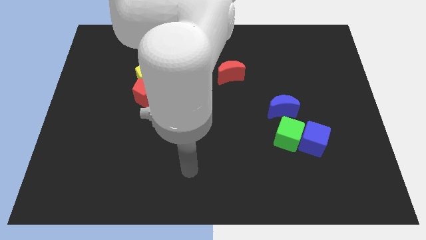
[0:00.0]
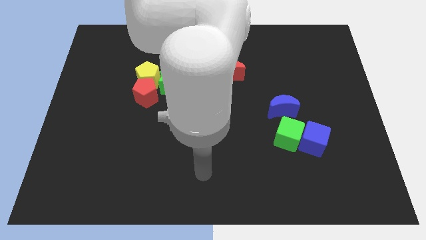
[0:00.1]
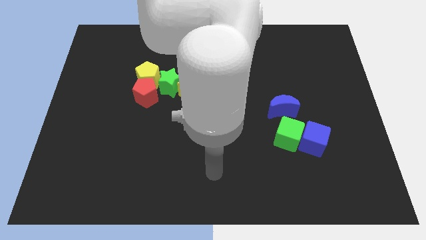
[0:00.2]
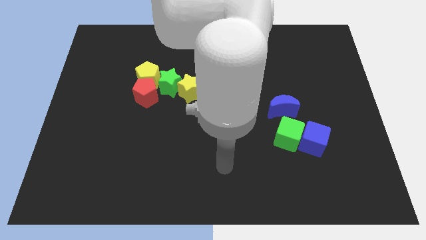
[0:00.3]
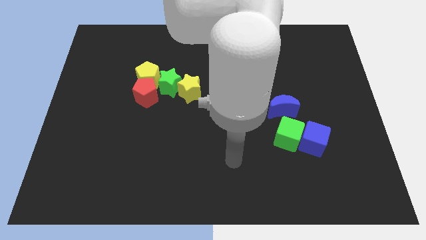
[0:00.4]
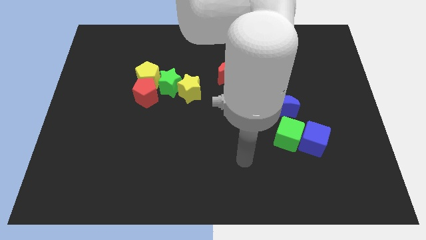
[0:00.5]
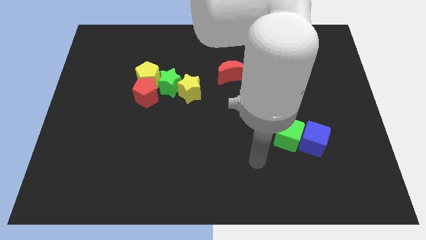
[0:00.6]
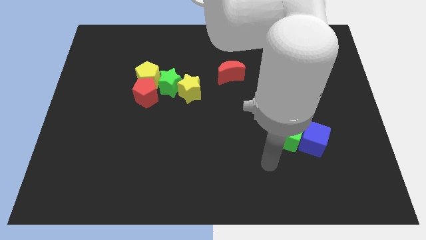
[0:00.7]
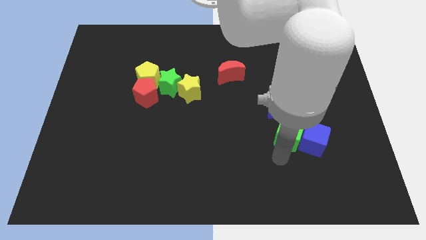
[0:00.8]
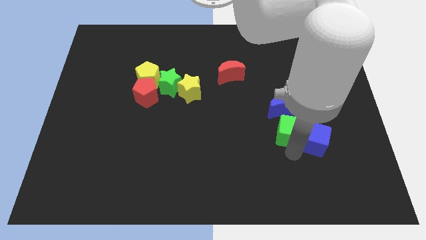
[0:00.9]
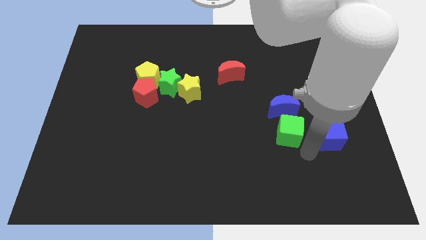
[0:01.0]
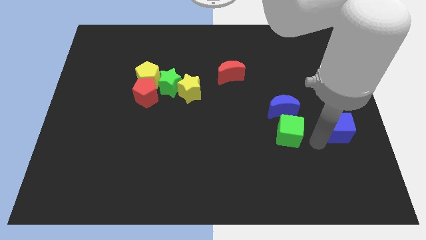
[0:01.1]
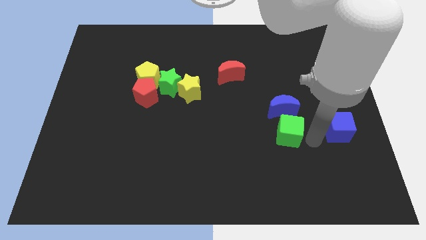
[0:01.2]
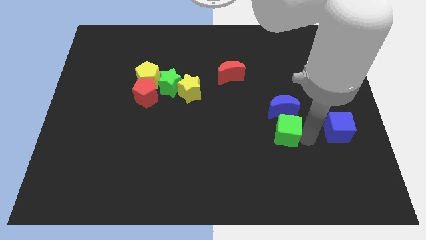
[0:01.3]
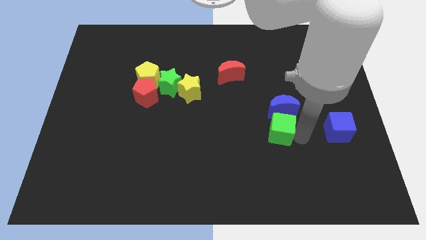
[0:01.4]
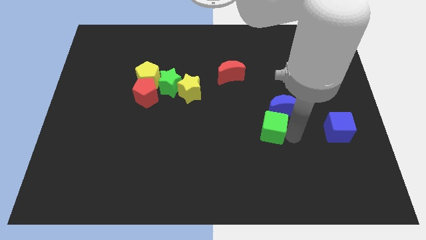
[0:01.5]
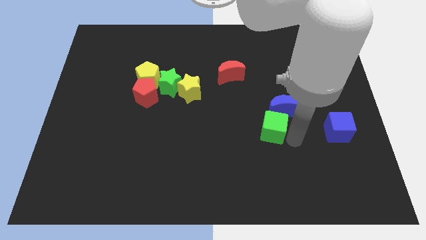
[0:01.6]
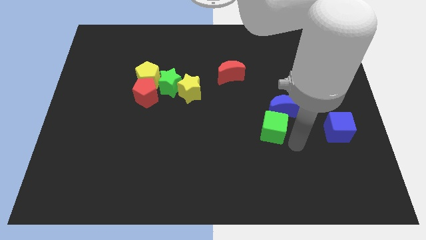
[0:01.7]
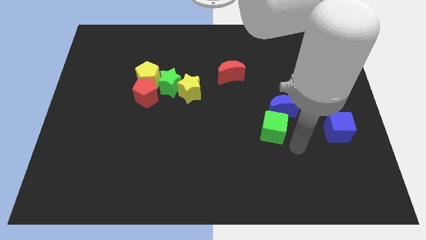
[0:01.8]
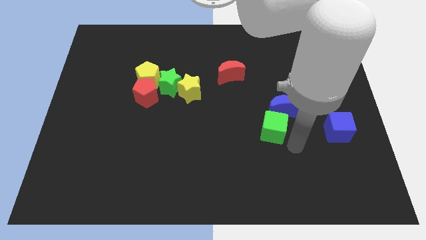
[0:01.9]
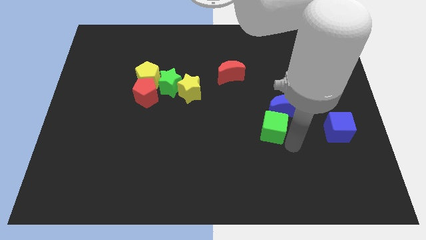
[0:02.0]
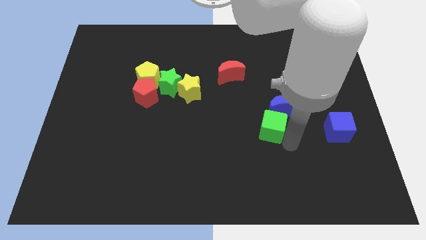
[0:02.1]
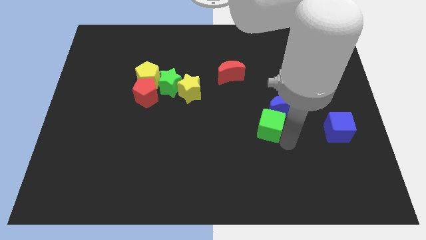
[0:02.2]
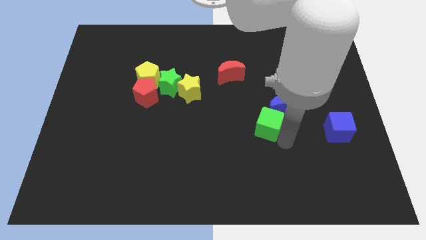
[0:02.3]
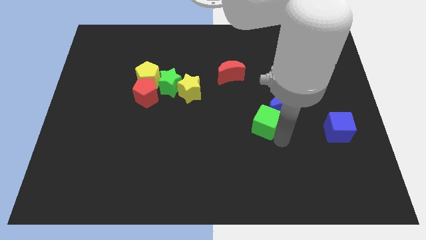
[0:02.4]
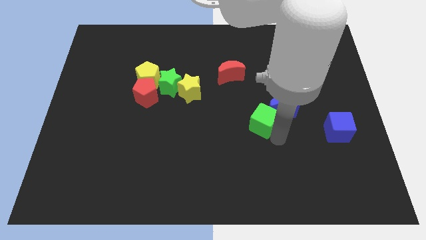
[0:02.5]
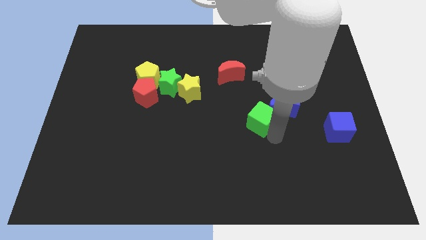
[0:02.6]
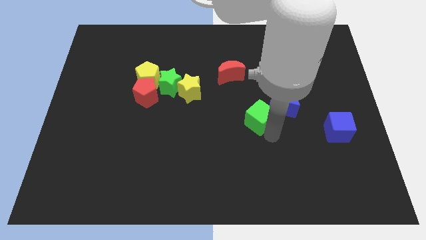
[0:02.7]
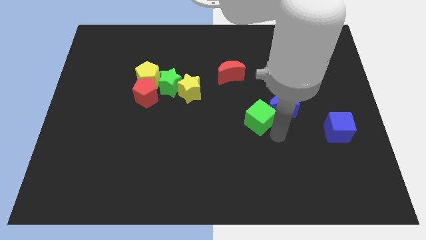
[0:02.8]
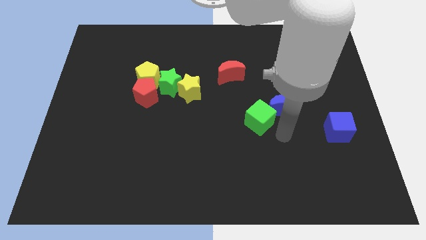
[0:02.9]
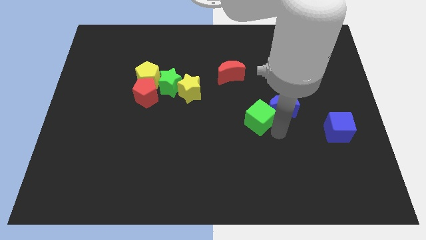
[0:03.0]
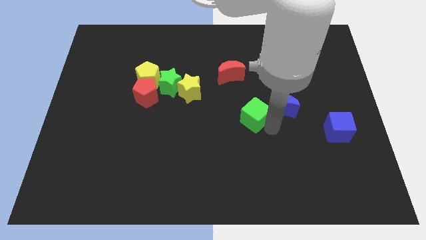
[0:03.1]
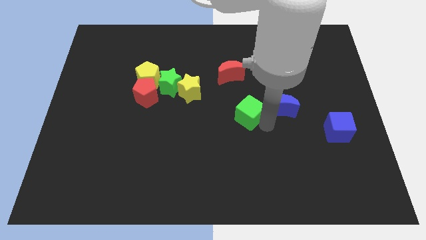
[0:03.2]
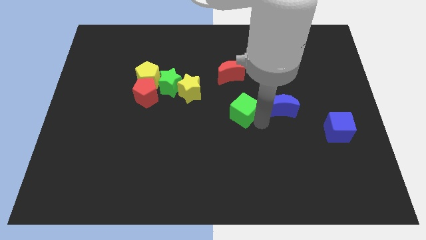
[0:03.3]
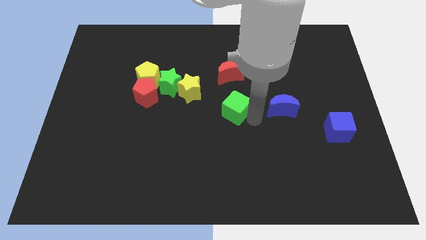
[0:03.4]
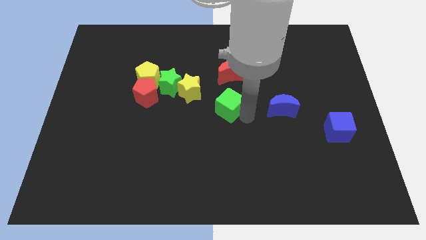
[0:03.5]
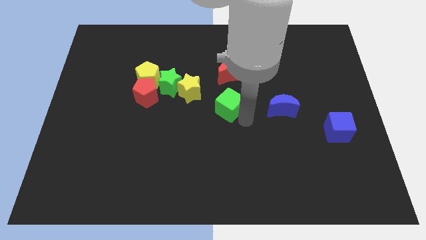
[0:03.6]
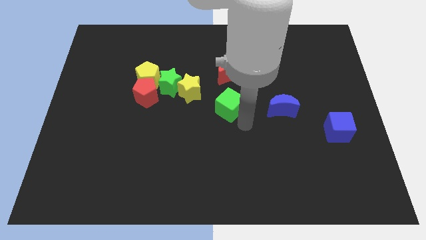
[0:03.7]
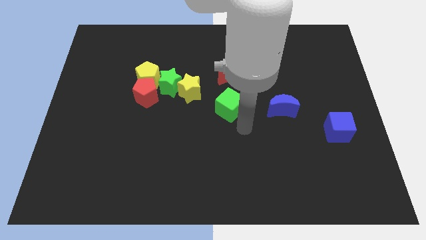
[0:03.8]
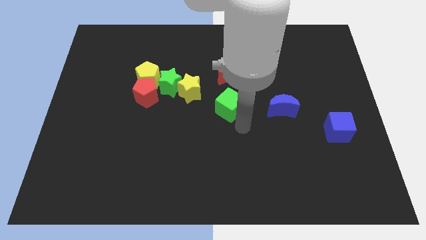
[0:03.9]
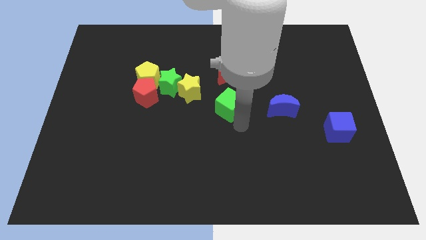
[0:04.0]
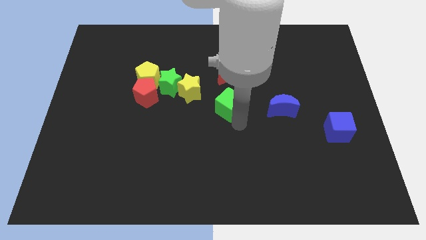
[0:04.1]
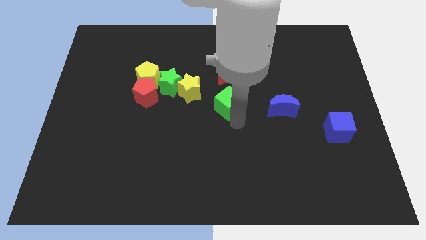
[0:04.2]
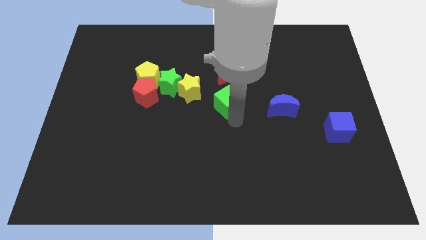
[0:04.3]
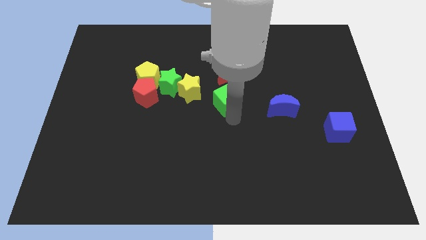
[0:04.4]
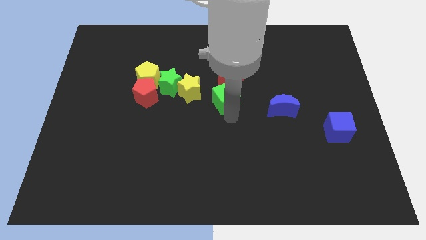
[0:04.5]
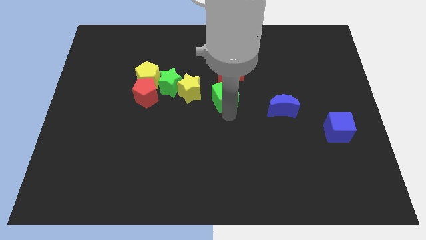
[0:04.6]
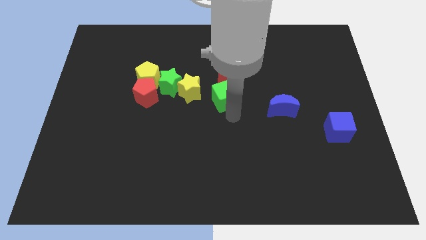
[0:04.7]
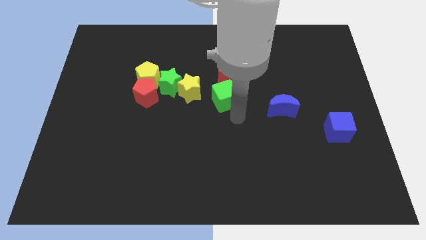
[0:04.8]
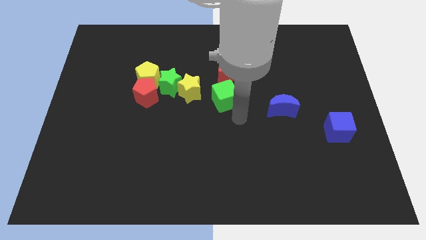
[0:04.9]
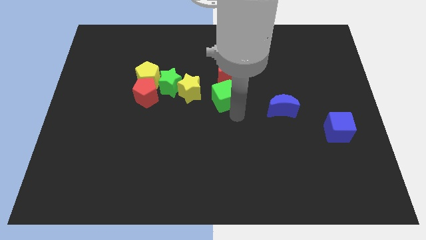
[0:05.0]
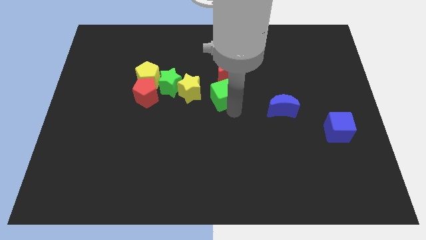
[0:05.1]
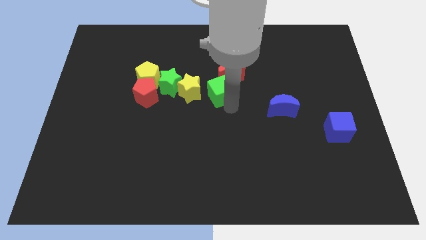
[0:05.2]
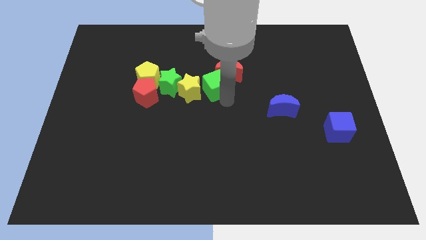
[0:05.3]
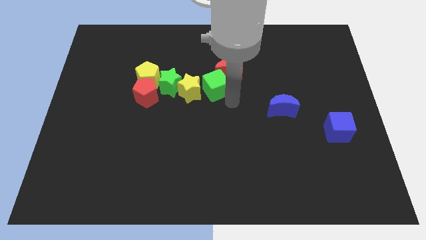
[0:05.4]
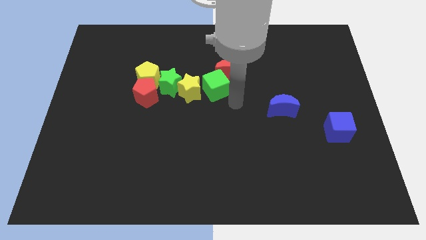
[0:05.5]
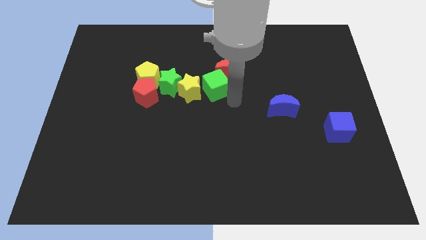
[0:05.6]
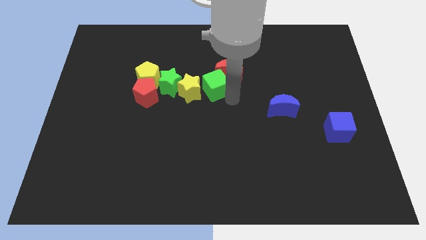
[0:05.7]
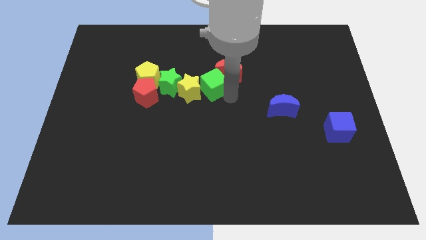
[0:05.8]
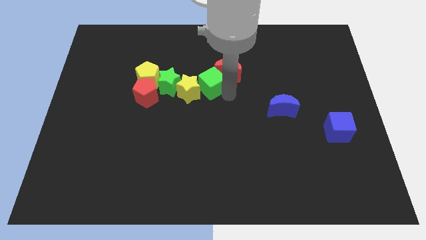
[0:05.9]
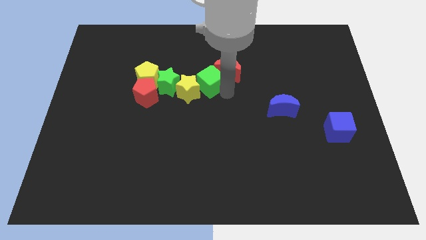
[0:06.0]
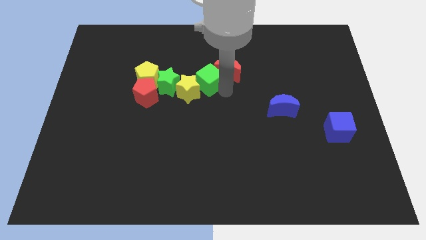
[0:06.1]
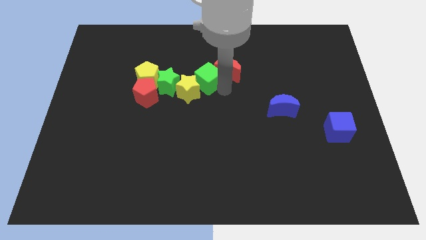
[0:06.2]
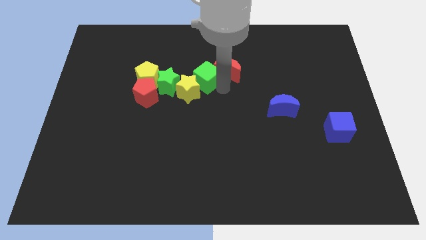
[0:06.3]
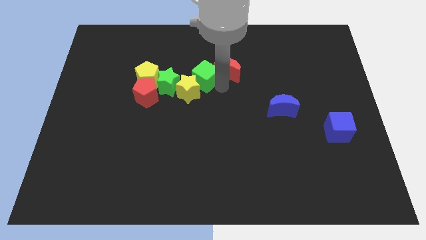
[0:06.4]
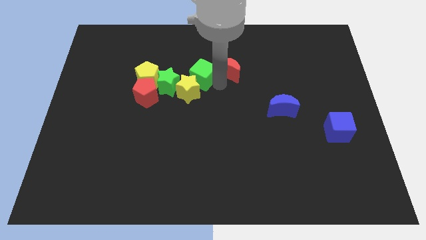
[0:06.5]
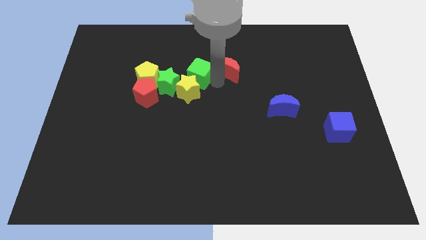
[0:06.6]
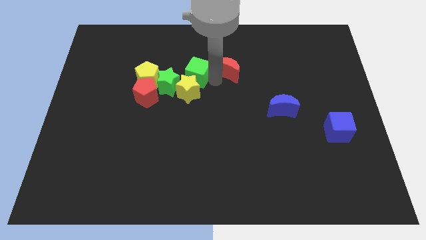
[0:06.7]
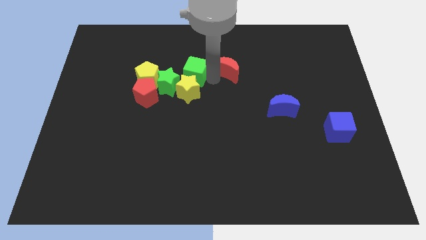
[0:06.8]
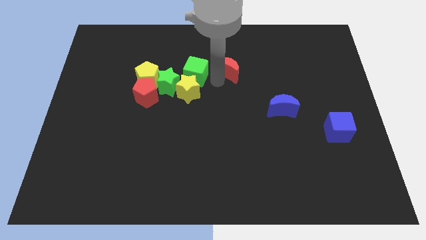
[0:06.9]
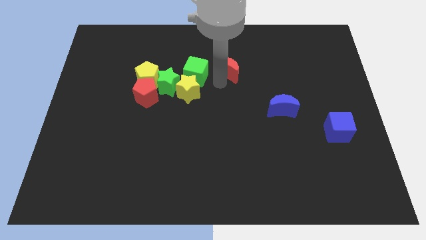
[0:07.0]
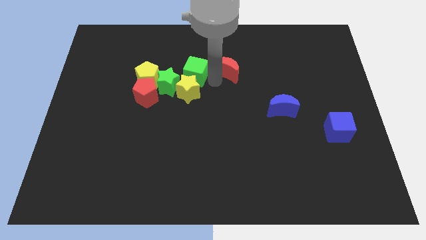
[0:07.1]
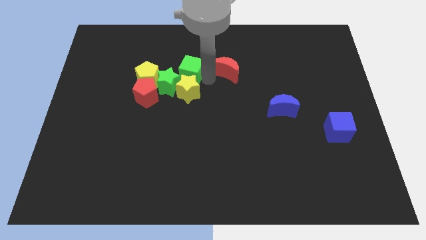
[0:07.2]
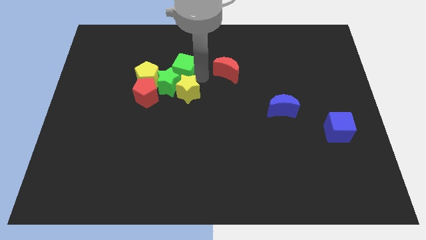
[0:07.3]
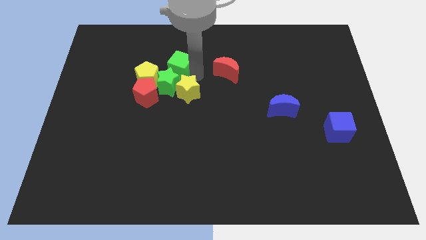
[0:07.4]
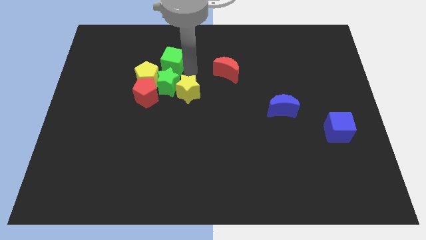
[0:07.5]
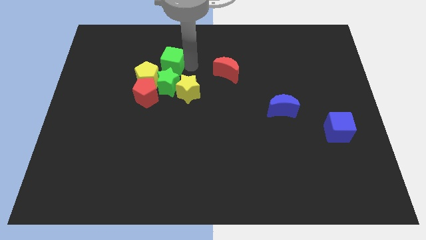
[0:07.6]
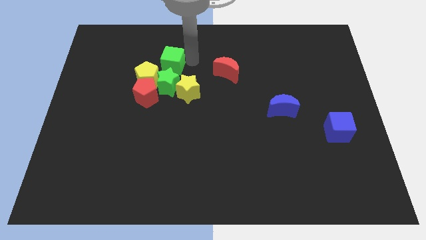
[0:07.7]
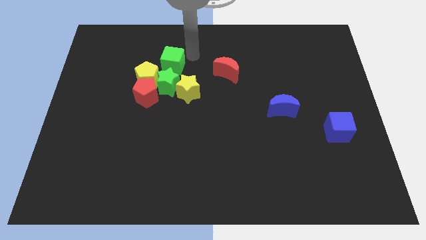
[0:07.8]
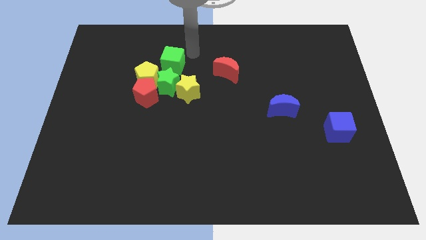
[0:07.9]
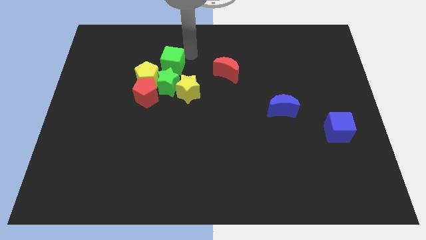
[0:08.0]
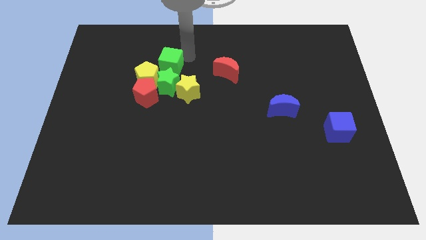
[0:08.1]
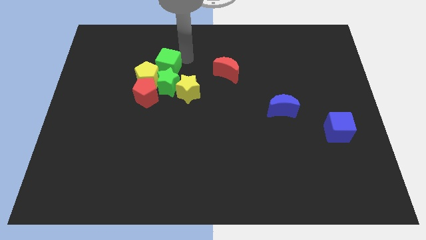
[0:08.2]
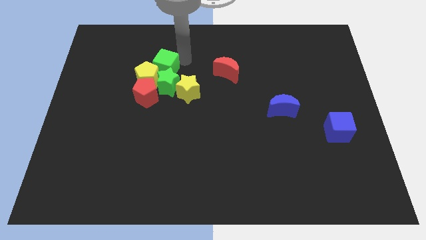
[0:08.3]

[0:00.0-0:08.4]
put the green cube close to the yellow pentagon
